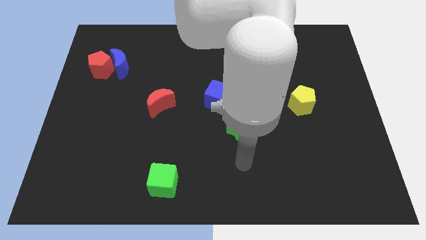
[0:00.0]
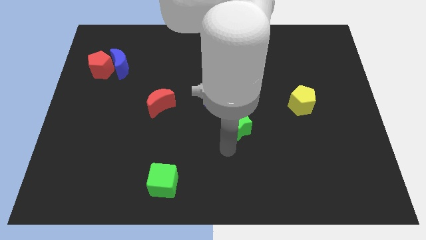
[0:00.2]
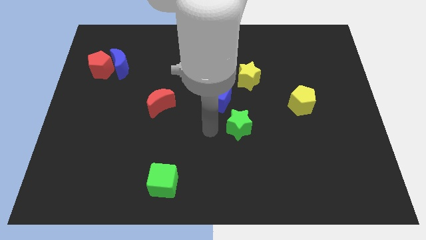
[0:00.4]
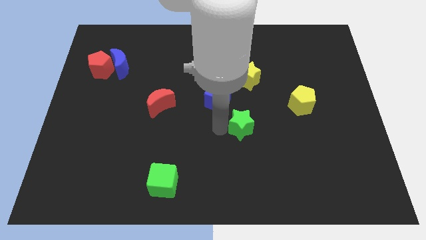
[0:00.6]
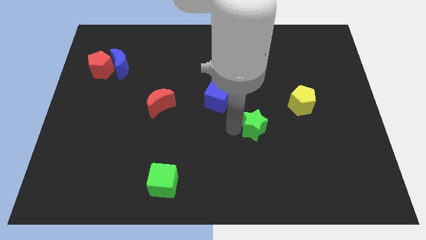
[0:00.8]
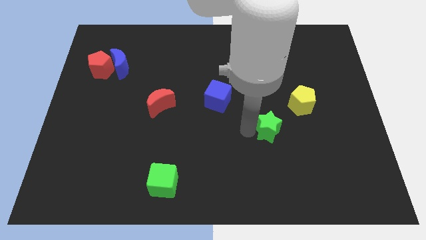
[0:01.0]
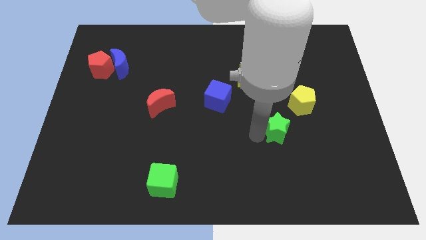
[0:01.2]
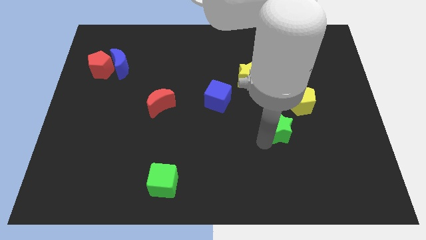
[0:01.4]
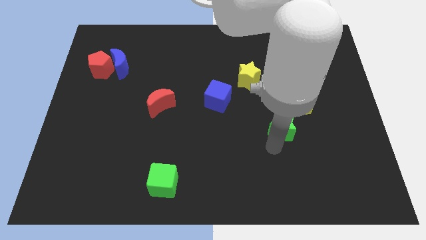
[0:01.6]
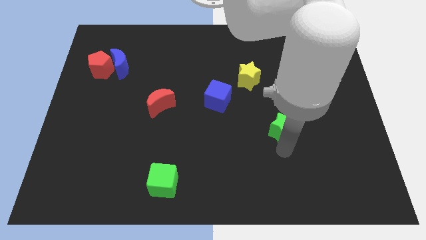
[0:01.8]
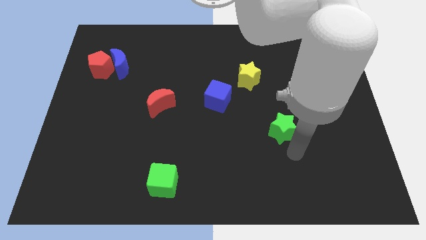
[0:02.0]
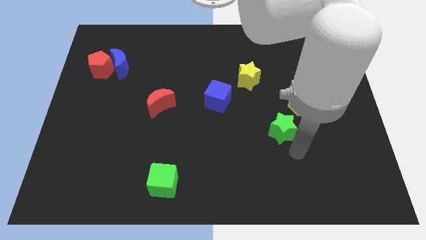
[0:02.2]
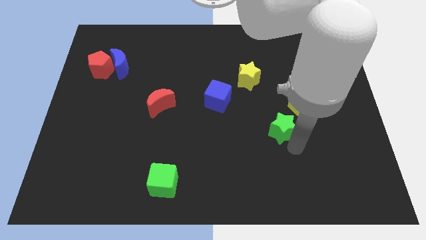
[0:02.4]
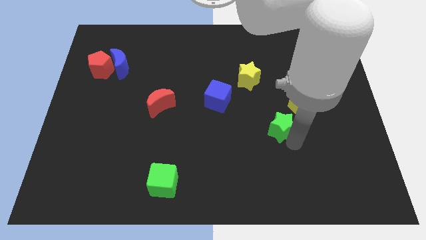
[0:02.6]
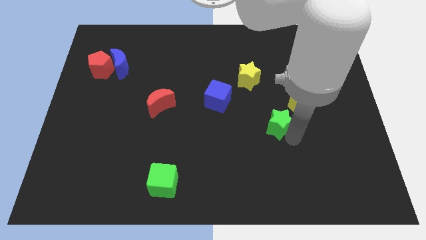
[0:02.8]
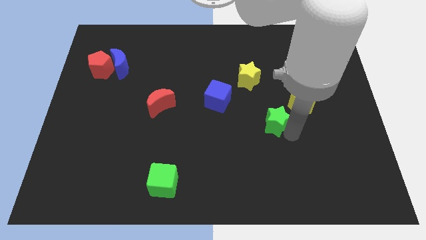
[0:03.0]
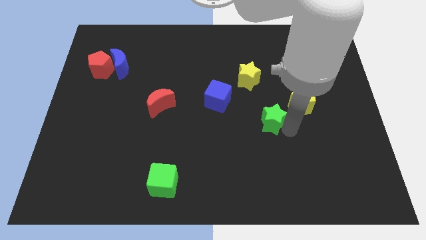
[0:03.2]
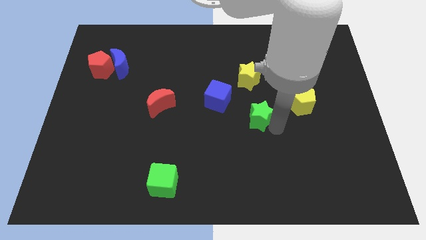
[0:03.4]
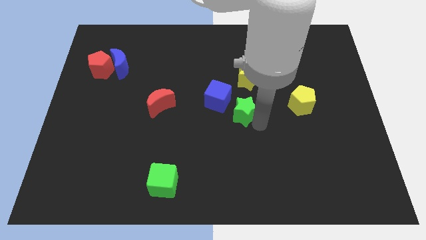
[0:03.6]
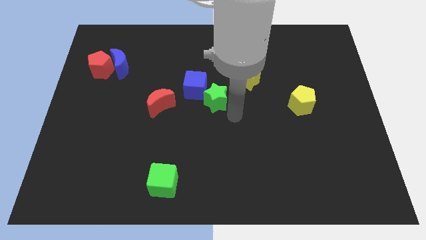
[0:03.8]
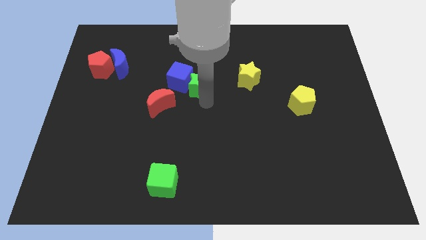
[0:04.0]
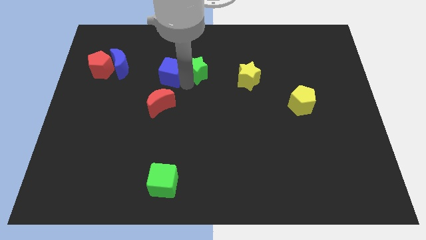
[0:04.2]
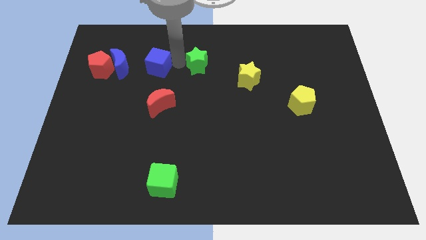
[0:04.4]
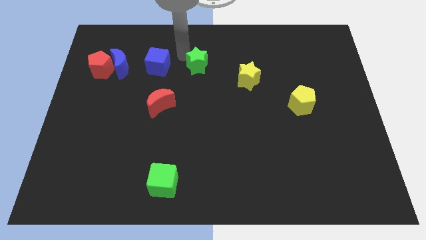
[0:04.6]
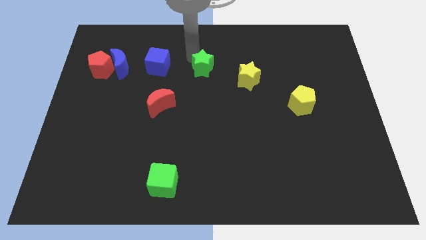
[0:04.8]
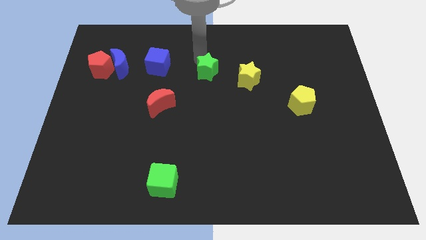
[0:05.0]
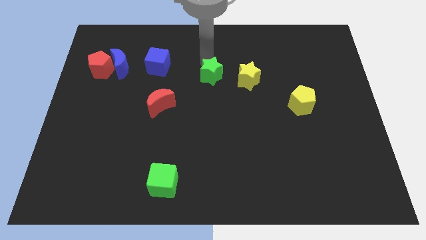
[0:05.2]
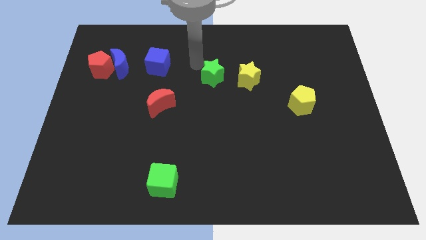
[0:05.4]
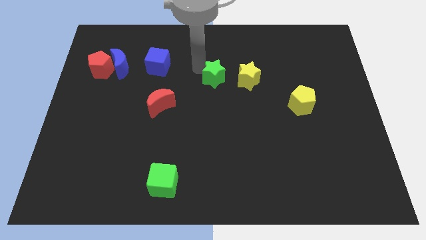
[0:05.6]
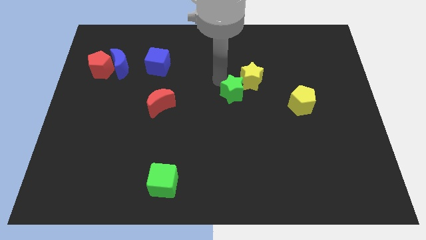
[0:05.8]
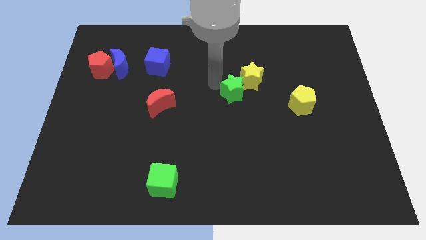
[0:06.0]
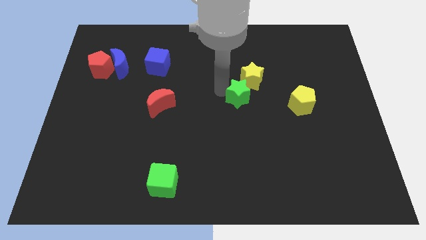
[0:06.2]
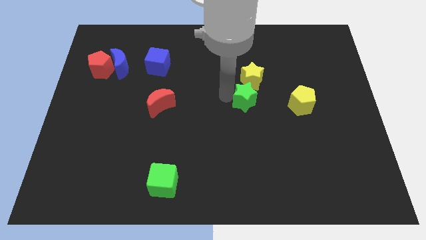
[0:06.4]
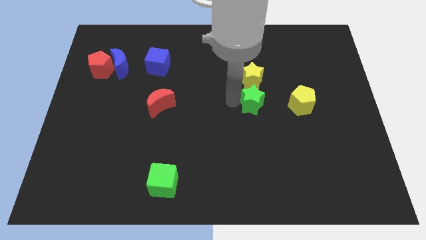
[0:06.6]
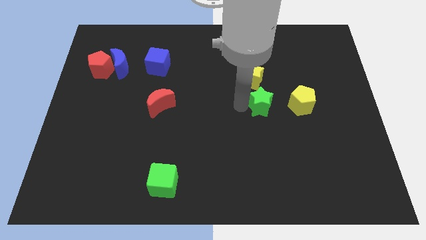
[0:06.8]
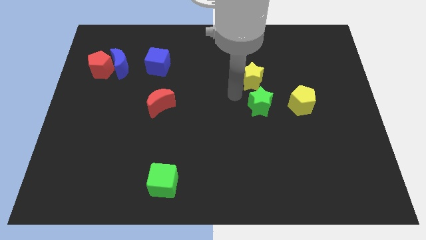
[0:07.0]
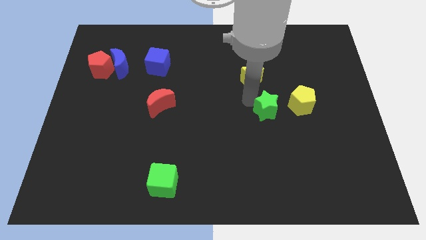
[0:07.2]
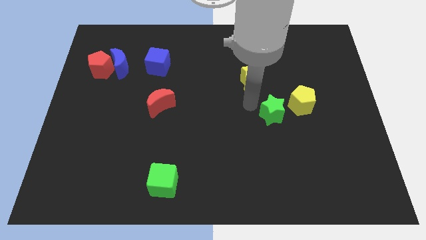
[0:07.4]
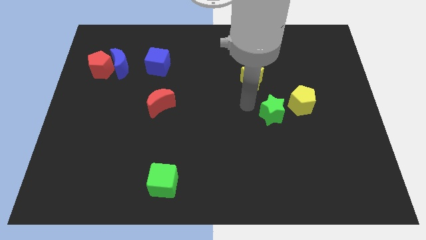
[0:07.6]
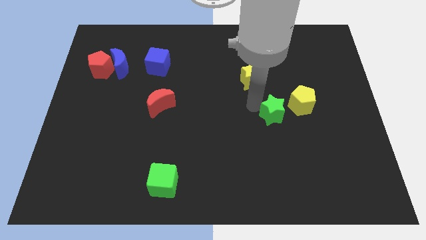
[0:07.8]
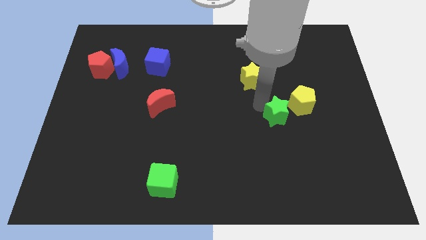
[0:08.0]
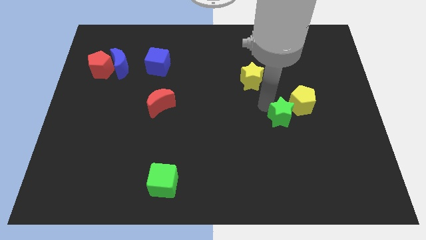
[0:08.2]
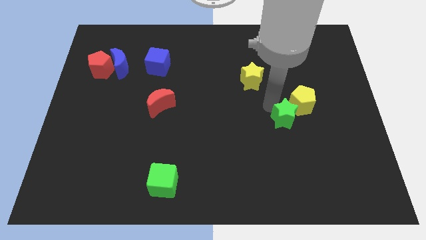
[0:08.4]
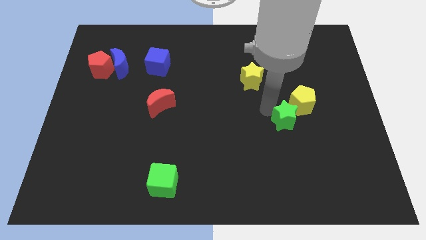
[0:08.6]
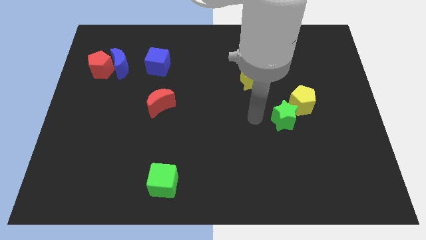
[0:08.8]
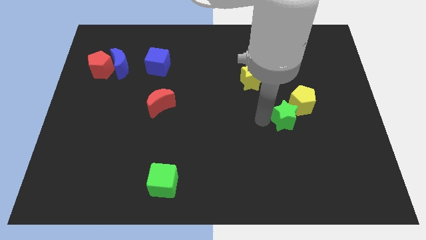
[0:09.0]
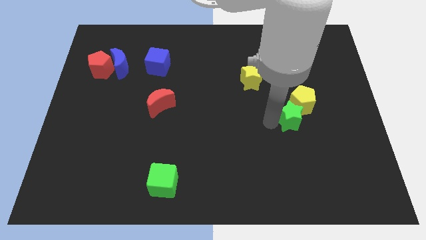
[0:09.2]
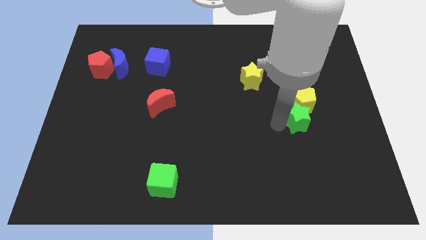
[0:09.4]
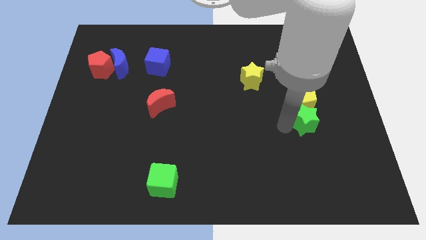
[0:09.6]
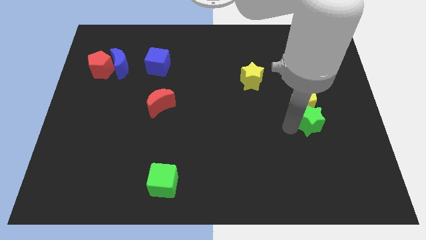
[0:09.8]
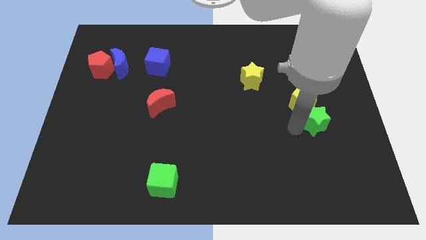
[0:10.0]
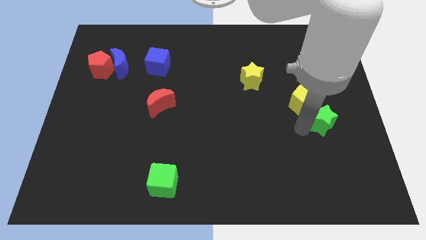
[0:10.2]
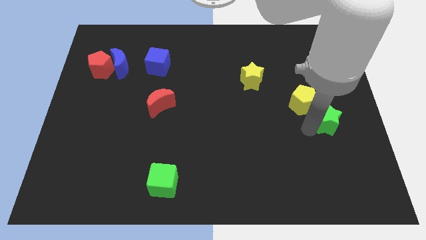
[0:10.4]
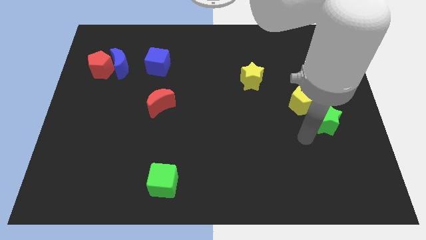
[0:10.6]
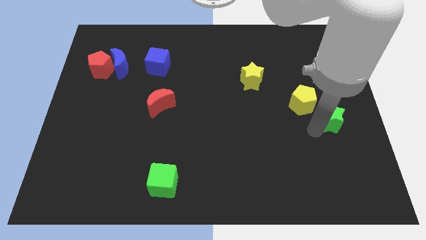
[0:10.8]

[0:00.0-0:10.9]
slide the green star to the right side

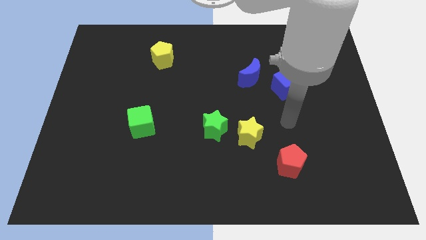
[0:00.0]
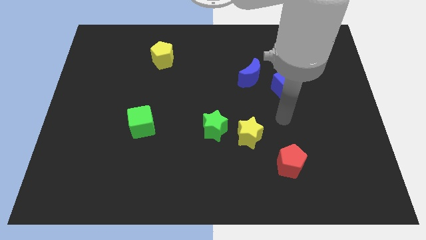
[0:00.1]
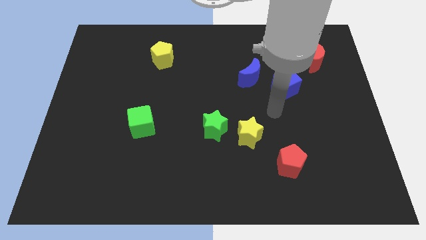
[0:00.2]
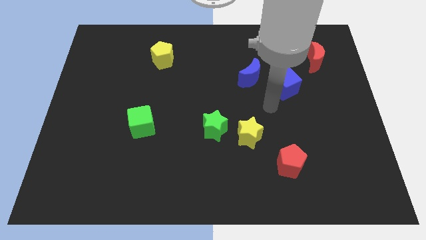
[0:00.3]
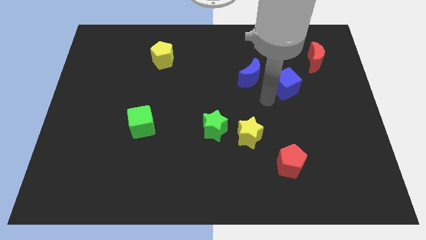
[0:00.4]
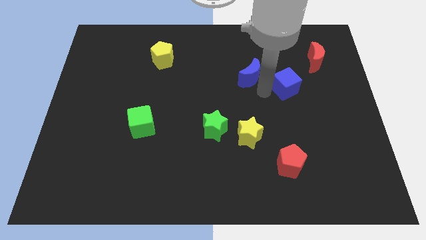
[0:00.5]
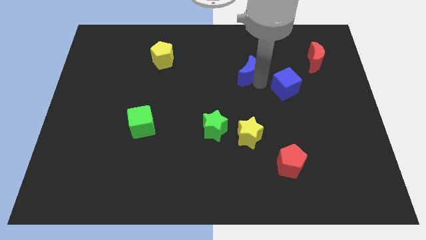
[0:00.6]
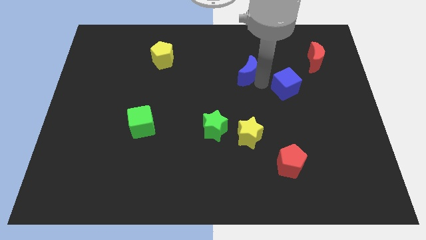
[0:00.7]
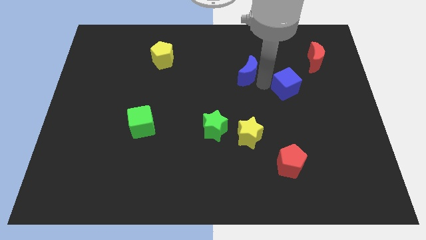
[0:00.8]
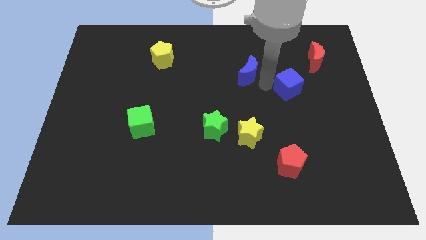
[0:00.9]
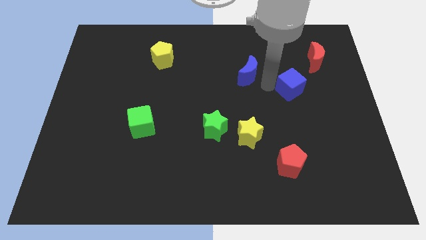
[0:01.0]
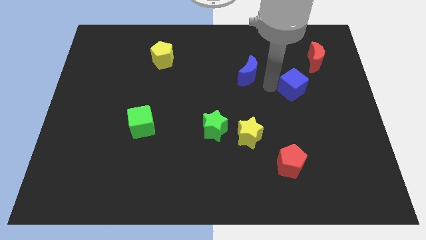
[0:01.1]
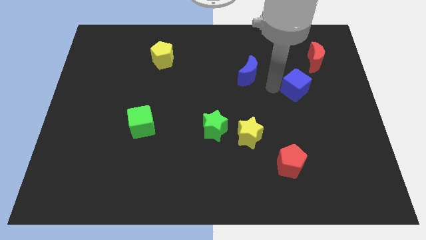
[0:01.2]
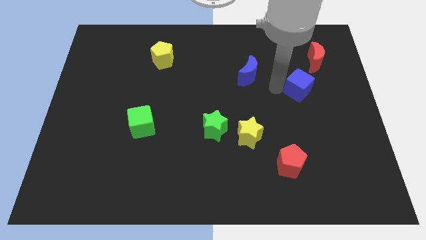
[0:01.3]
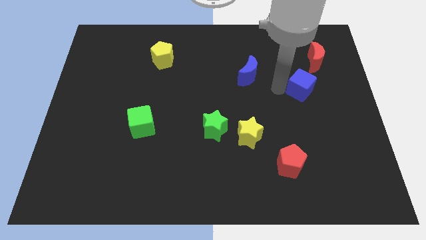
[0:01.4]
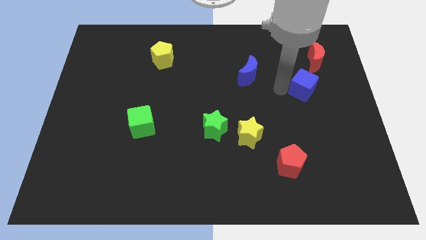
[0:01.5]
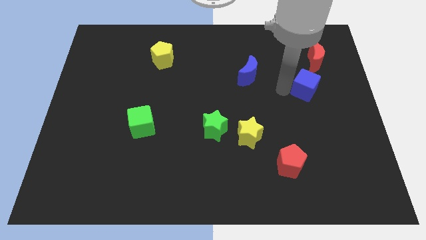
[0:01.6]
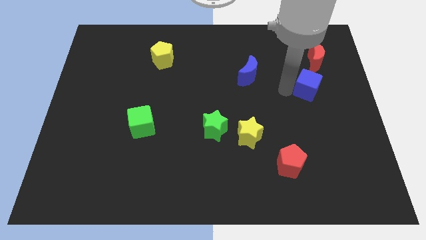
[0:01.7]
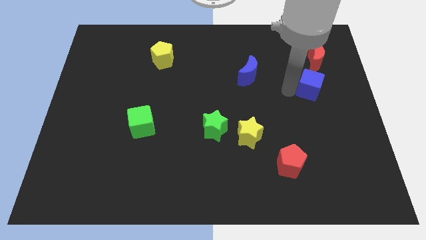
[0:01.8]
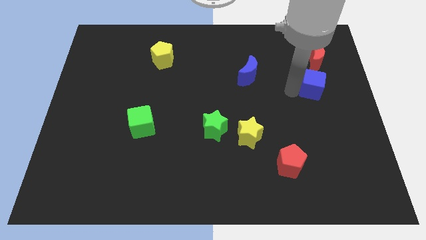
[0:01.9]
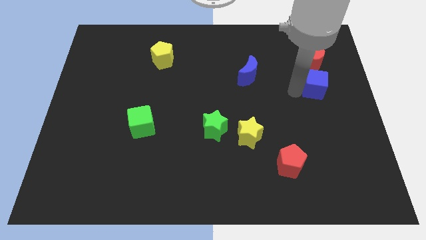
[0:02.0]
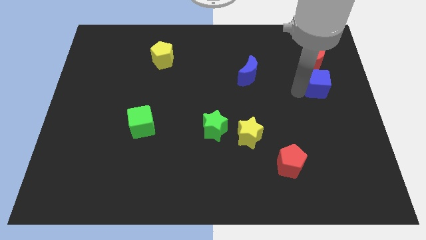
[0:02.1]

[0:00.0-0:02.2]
move the blue cube to the right side of the board
